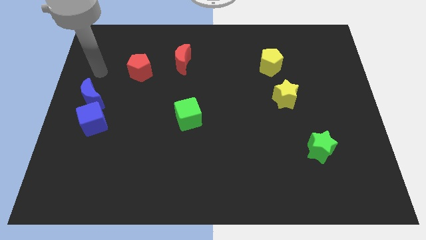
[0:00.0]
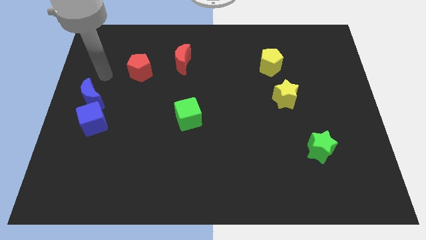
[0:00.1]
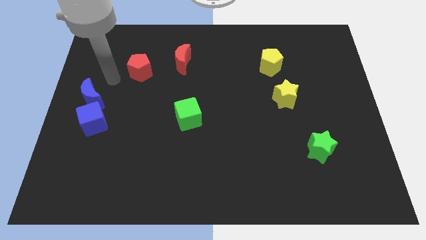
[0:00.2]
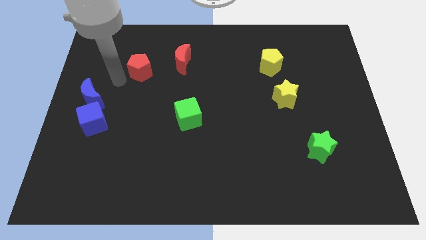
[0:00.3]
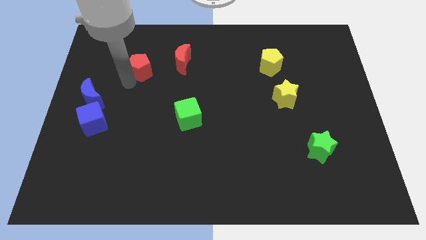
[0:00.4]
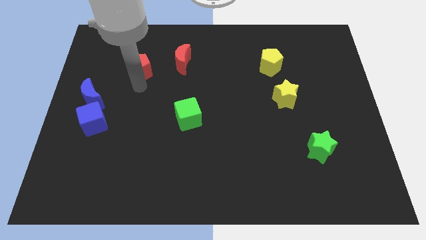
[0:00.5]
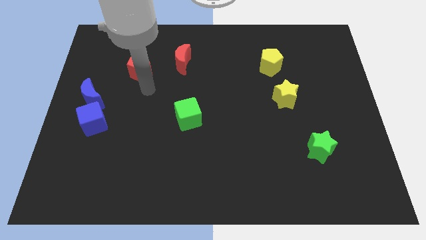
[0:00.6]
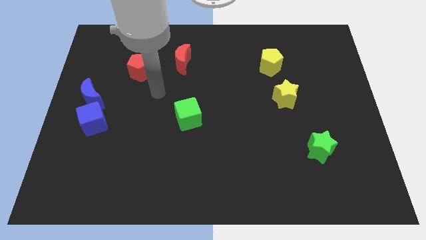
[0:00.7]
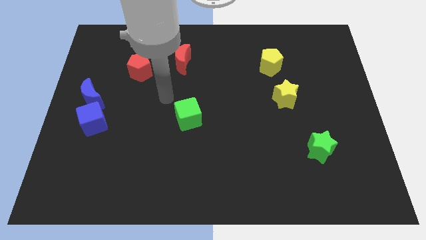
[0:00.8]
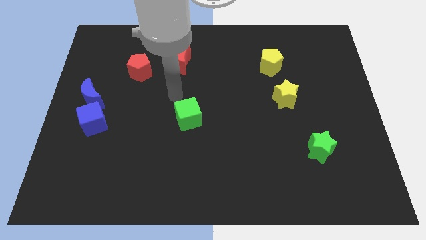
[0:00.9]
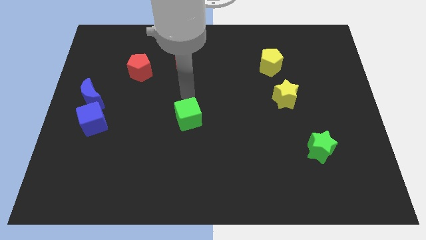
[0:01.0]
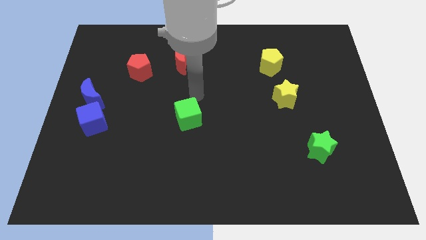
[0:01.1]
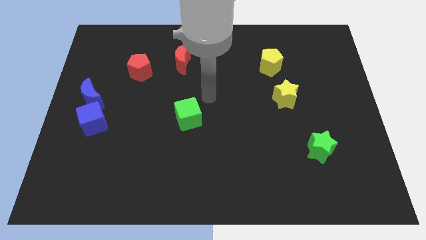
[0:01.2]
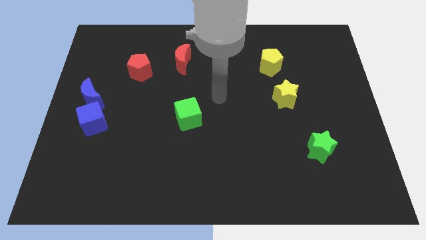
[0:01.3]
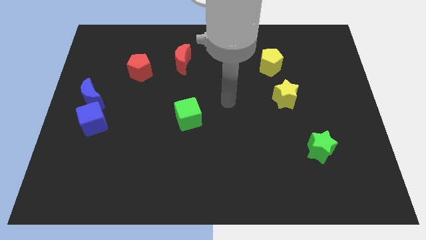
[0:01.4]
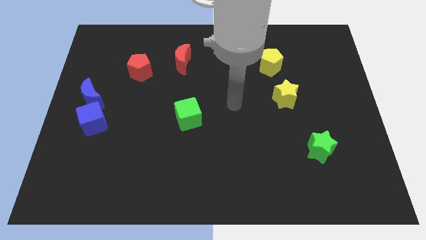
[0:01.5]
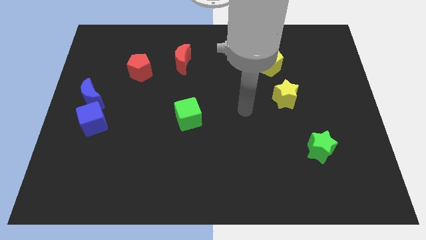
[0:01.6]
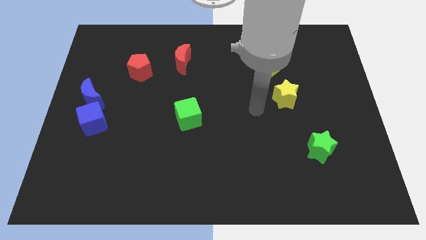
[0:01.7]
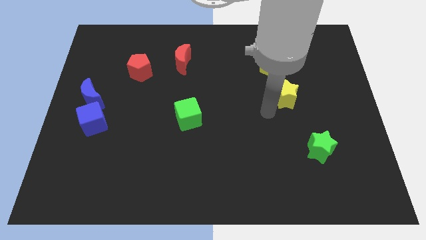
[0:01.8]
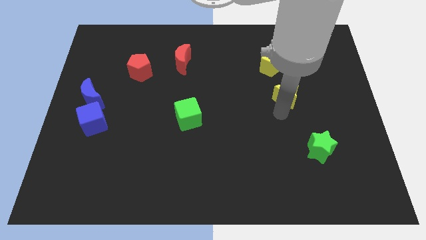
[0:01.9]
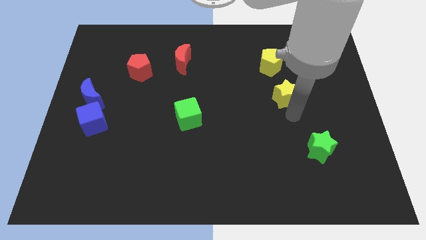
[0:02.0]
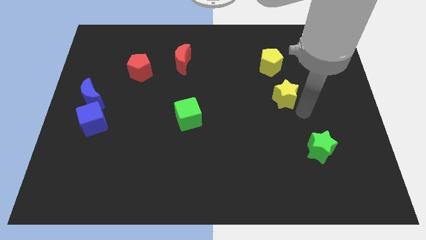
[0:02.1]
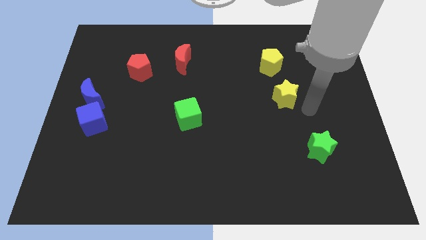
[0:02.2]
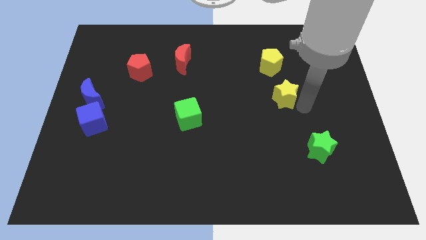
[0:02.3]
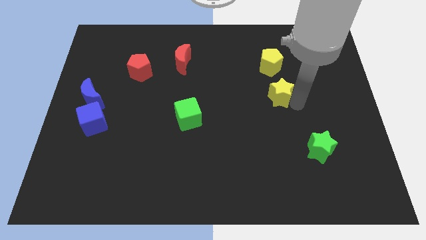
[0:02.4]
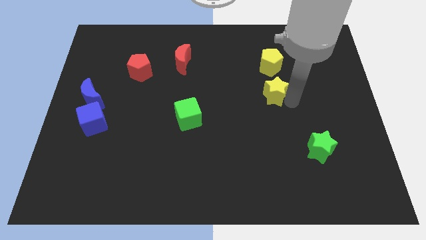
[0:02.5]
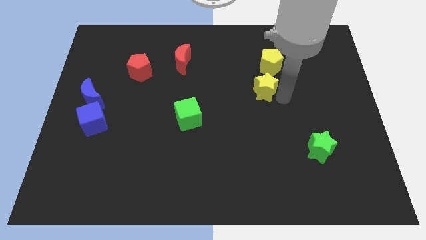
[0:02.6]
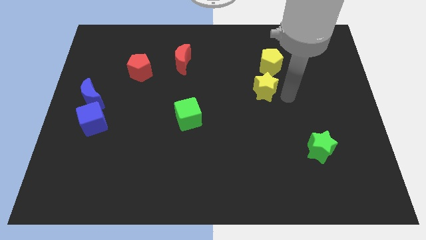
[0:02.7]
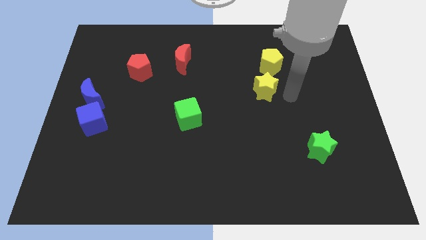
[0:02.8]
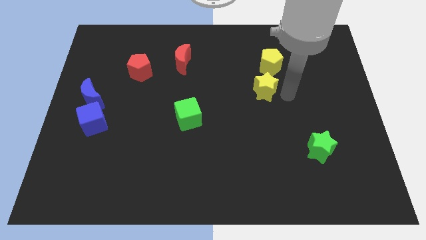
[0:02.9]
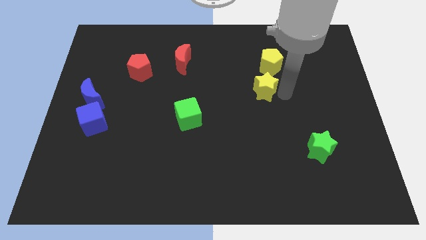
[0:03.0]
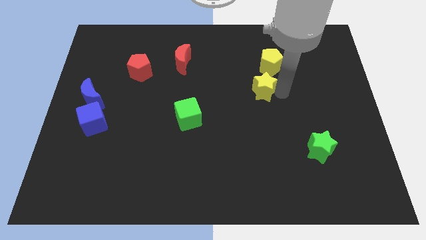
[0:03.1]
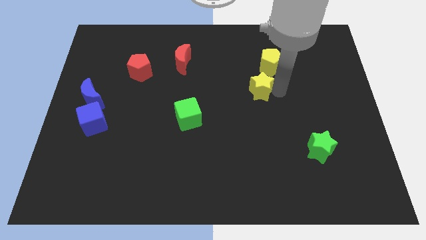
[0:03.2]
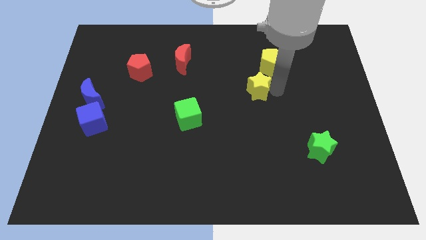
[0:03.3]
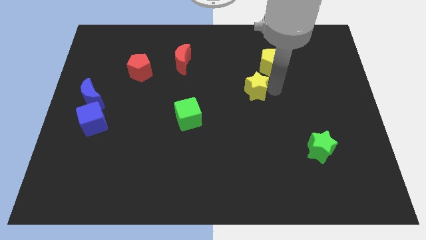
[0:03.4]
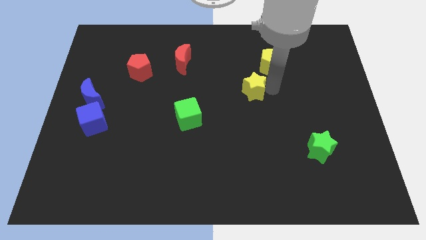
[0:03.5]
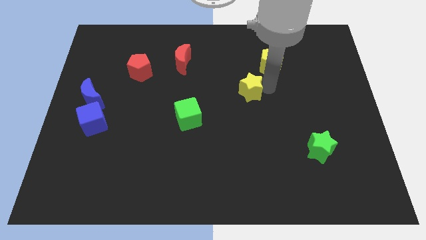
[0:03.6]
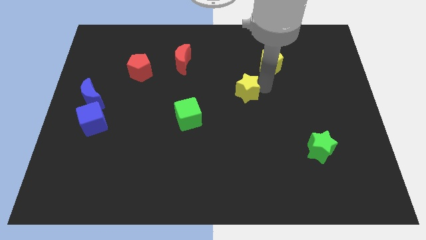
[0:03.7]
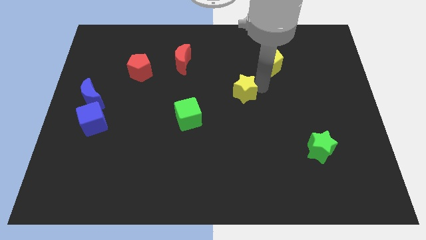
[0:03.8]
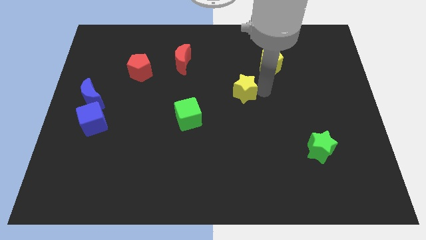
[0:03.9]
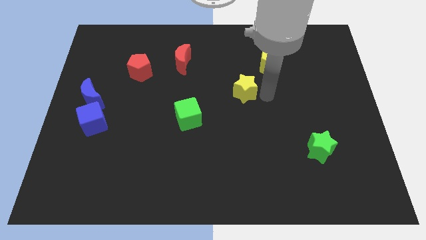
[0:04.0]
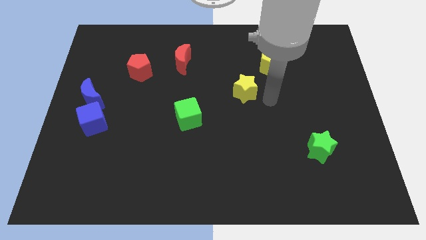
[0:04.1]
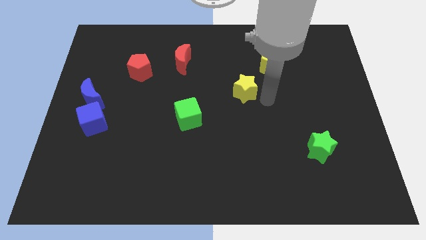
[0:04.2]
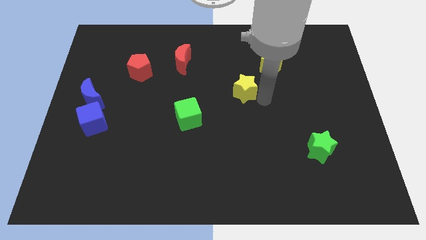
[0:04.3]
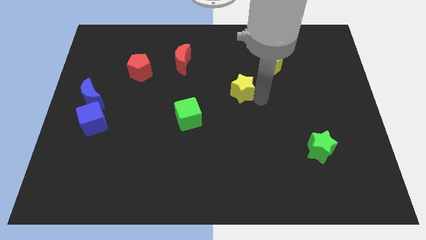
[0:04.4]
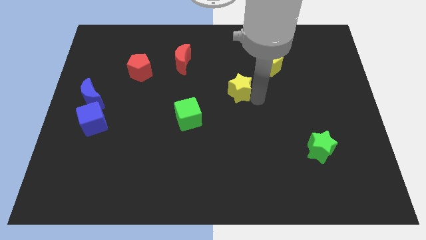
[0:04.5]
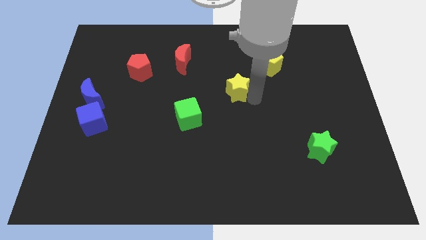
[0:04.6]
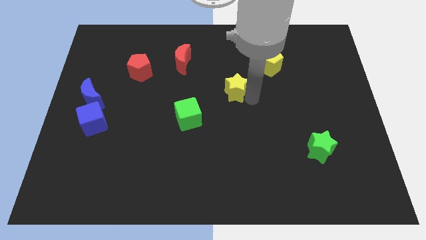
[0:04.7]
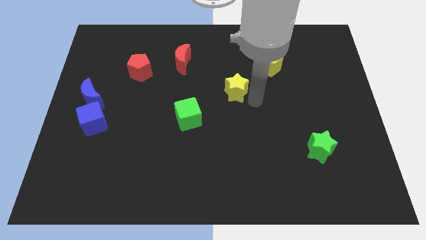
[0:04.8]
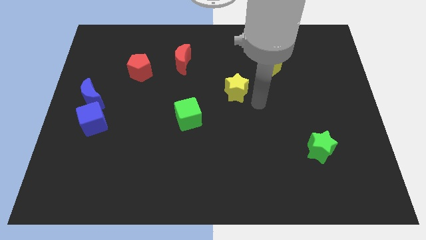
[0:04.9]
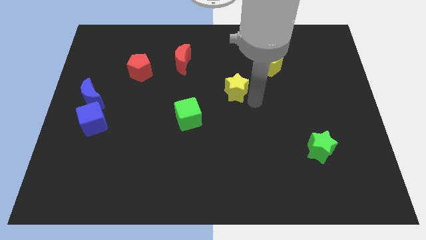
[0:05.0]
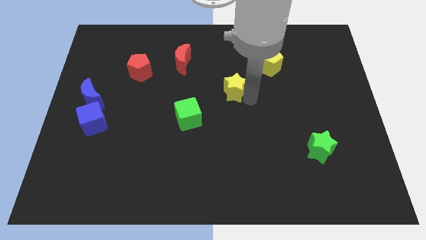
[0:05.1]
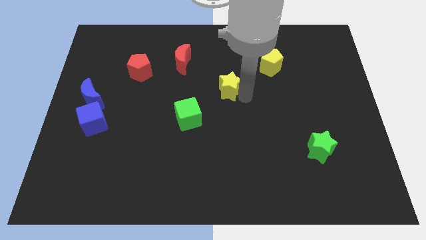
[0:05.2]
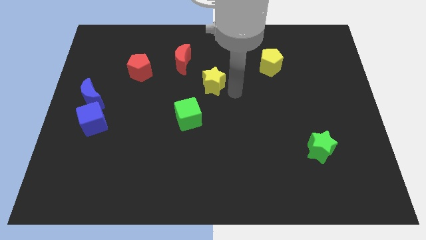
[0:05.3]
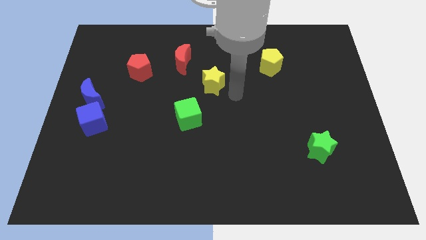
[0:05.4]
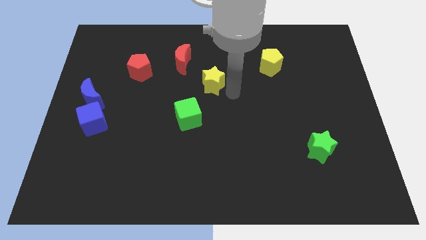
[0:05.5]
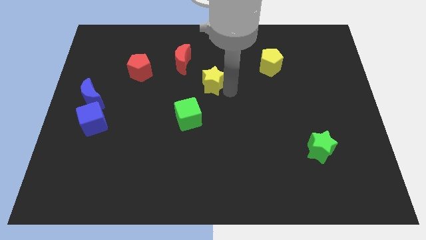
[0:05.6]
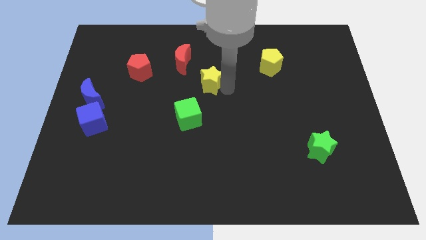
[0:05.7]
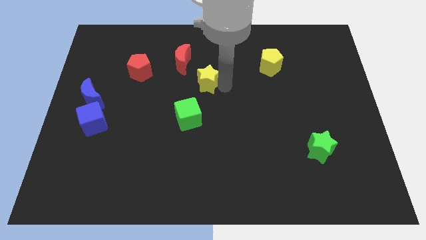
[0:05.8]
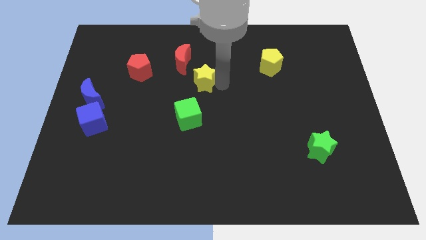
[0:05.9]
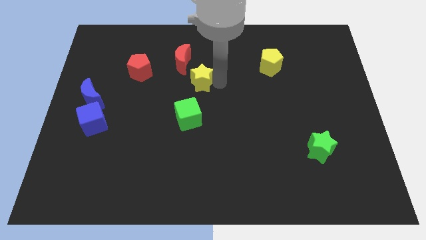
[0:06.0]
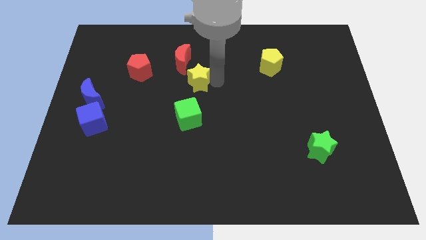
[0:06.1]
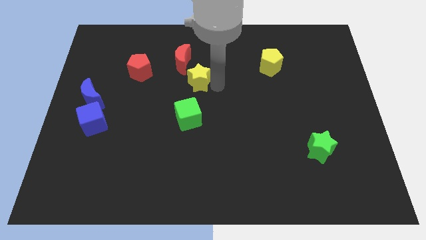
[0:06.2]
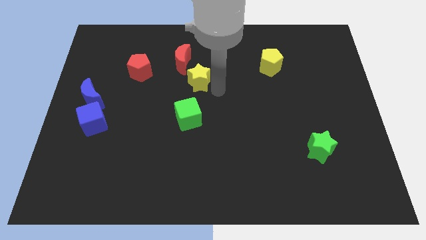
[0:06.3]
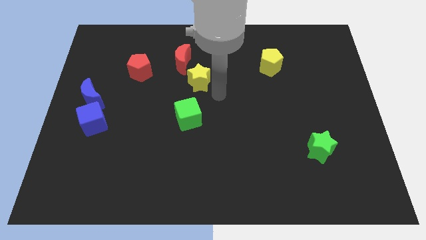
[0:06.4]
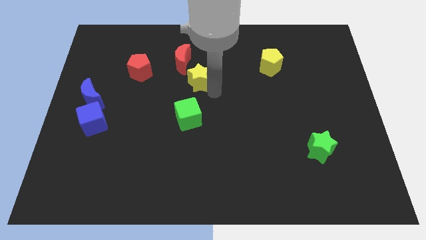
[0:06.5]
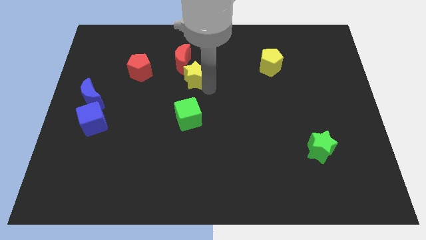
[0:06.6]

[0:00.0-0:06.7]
slide the yellow star just right of the red pentagon
